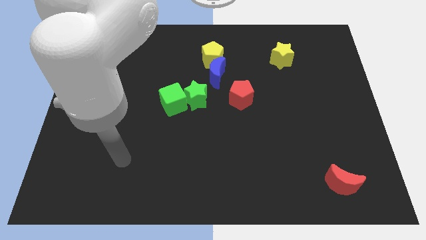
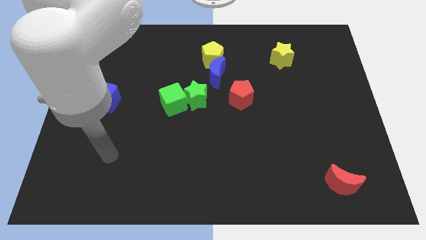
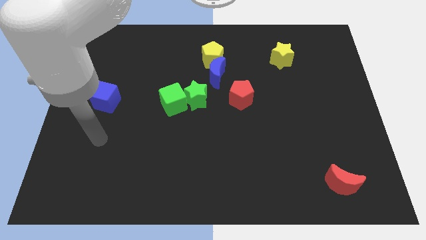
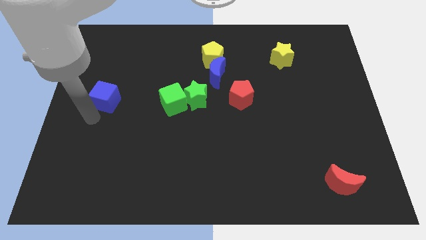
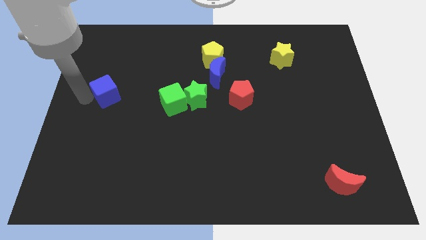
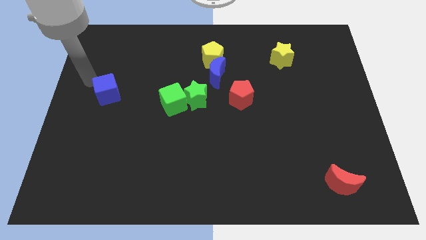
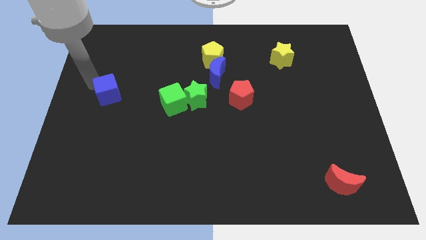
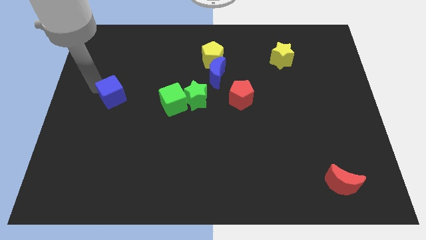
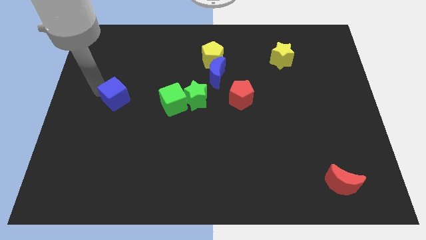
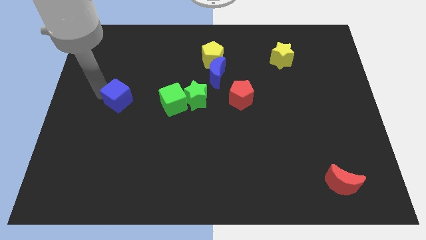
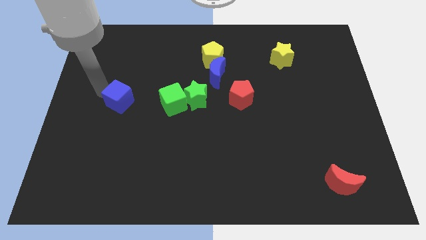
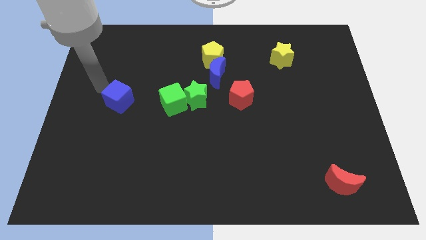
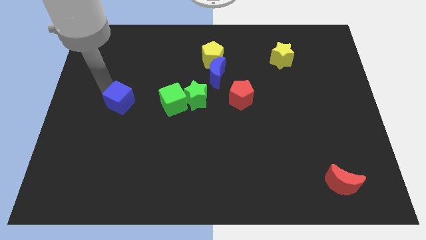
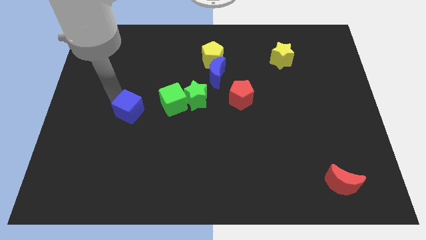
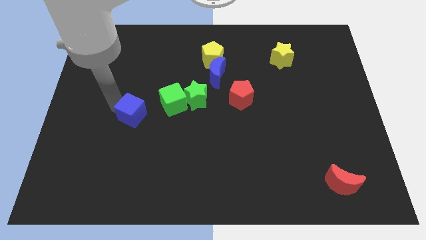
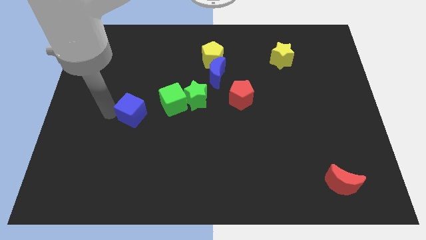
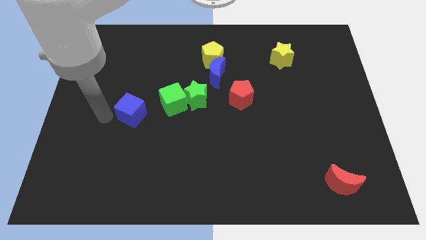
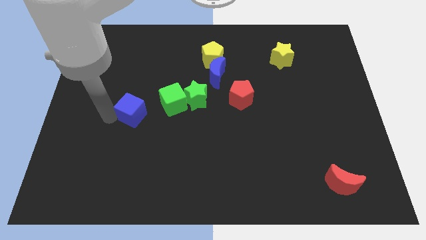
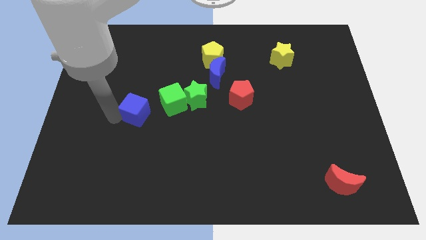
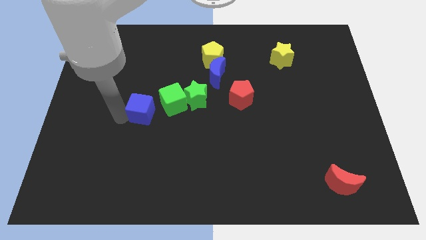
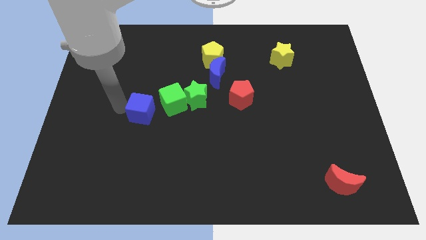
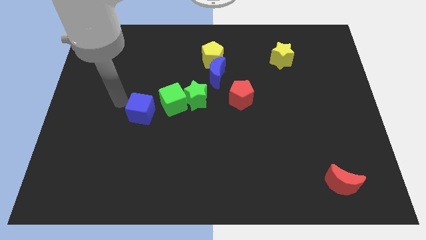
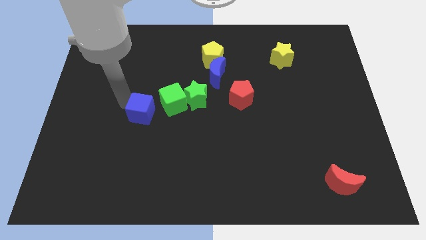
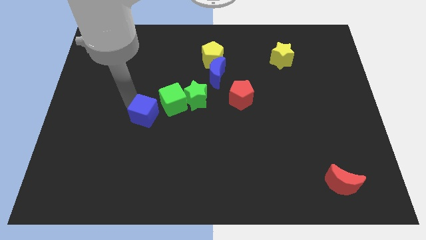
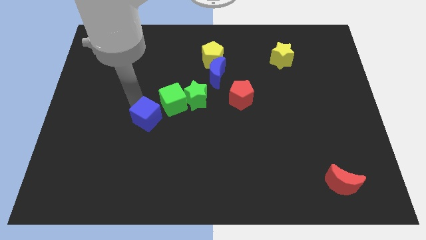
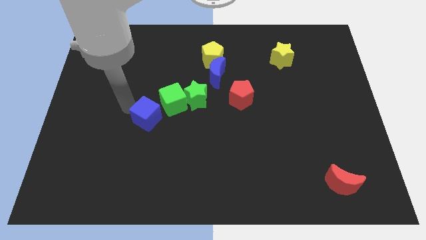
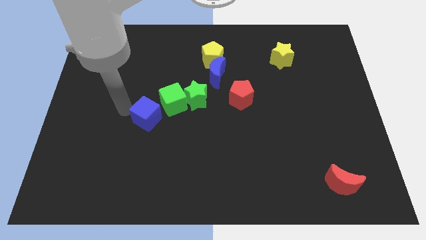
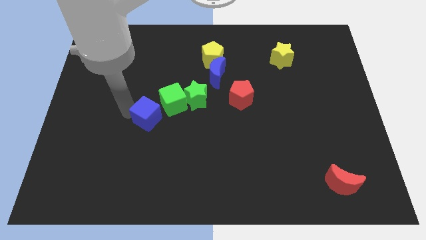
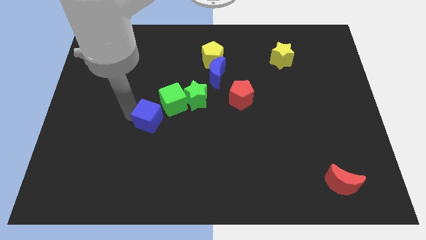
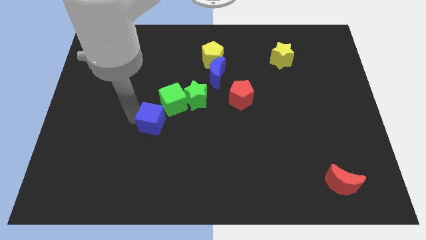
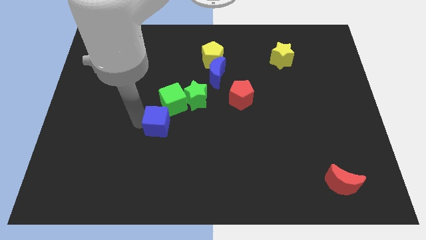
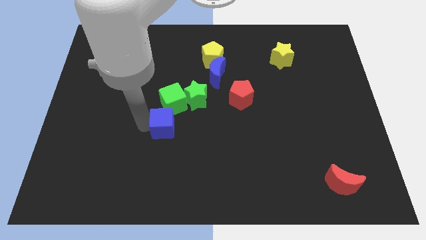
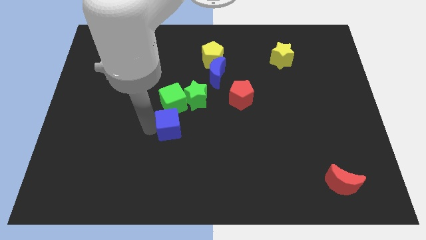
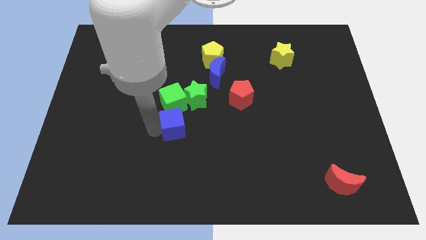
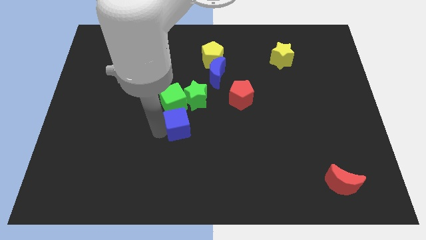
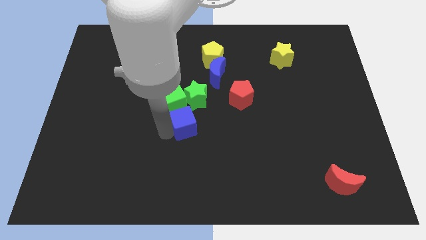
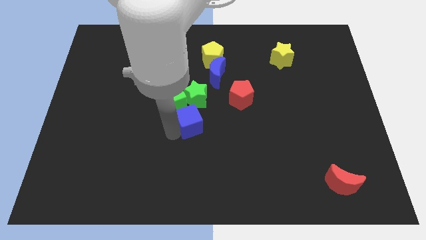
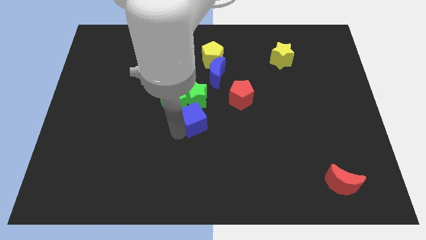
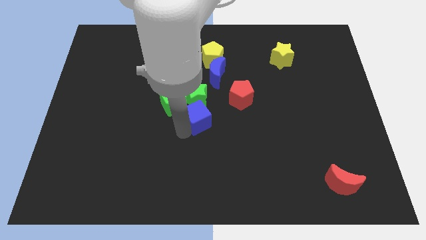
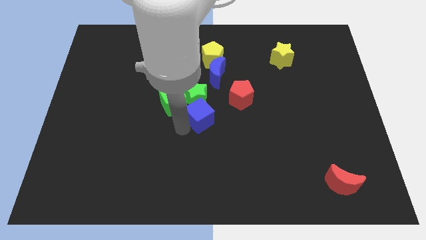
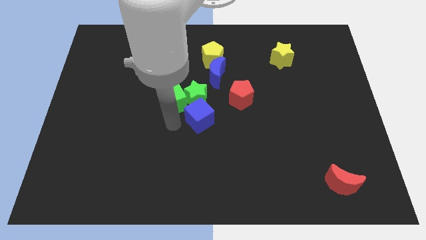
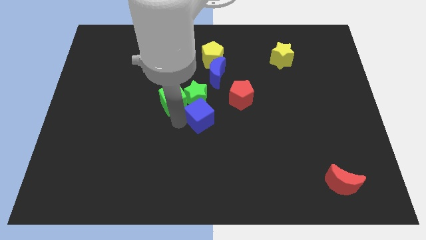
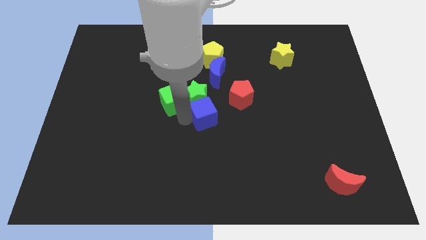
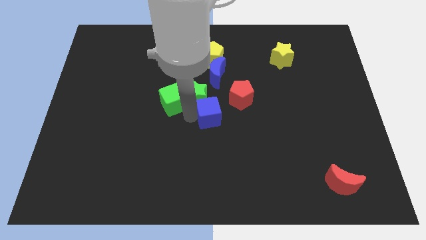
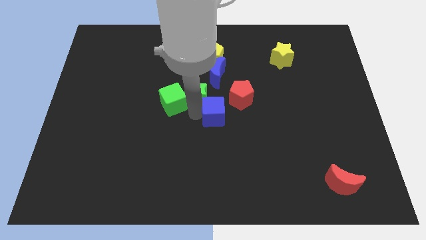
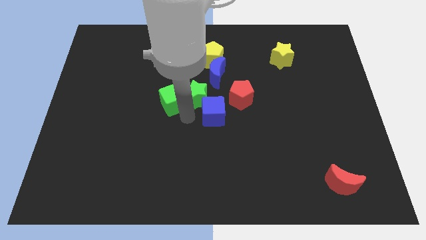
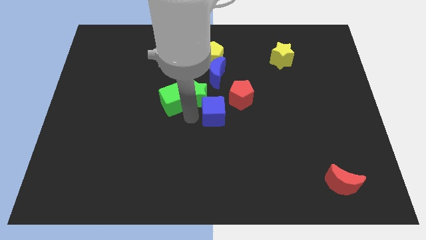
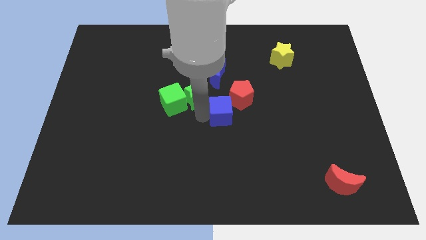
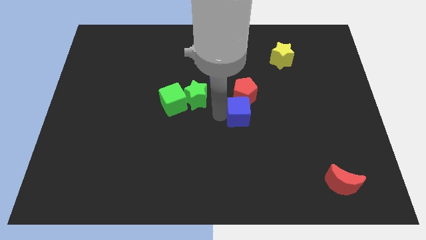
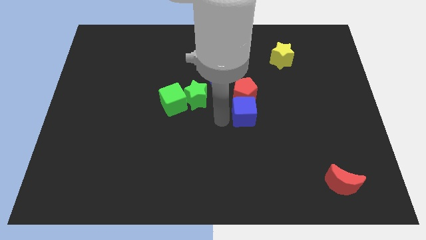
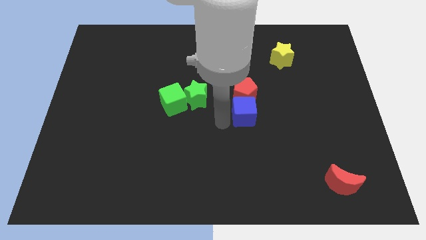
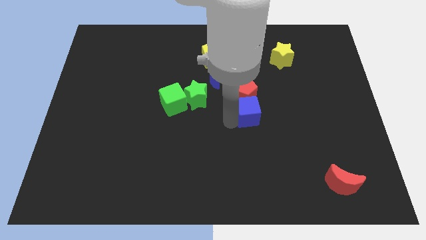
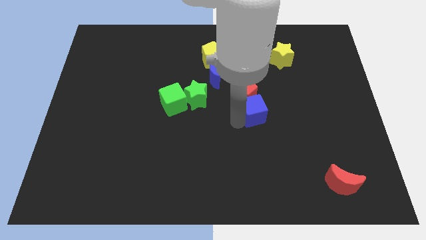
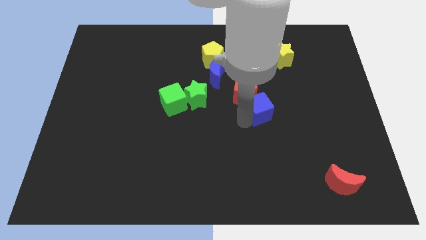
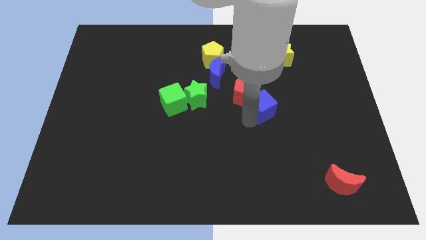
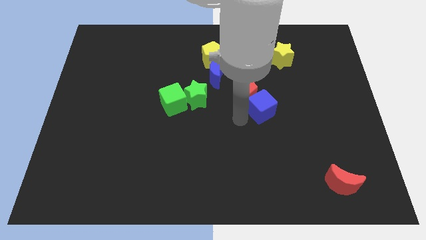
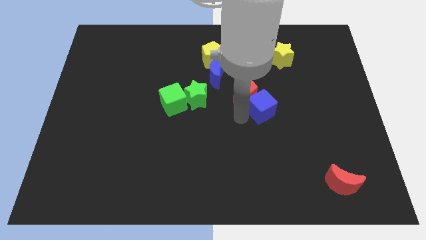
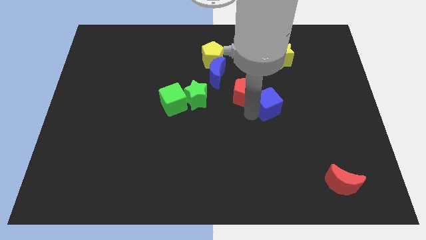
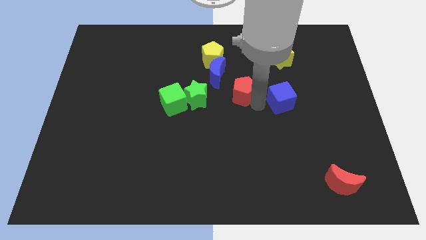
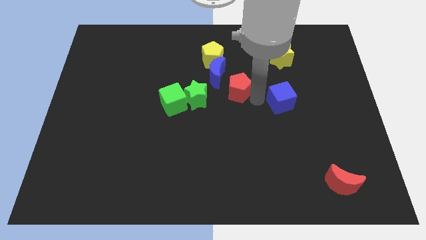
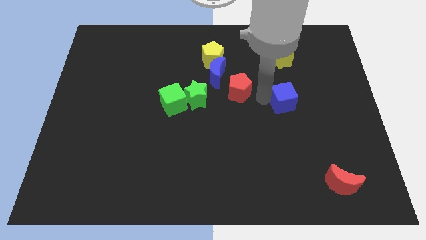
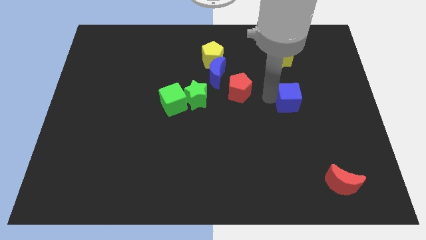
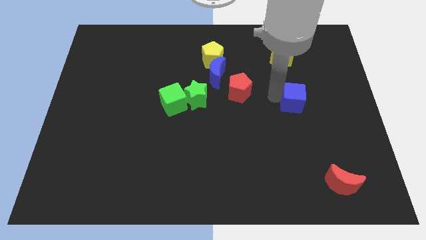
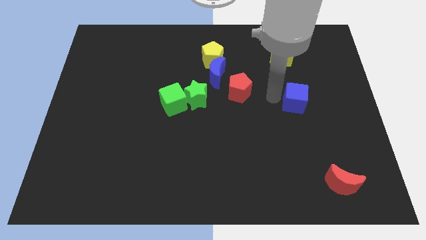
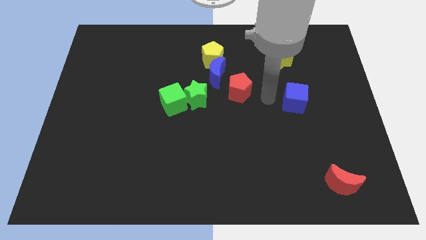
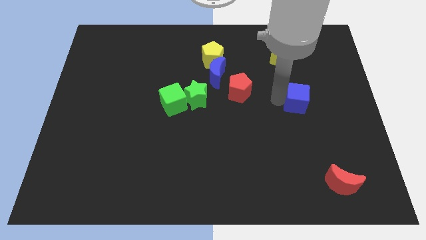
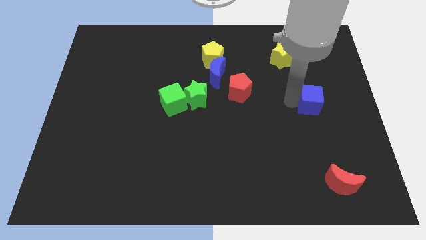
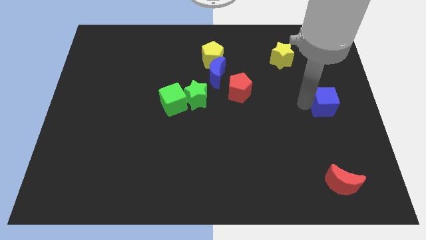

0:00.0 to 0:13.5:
move the blue cube to the center right
